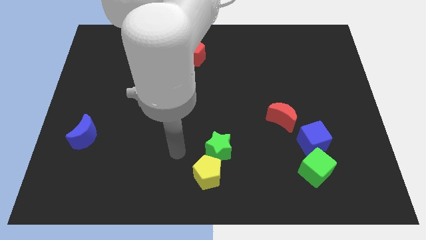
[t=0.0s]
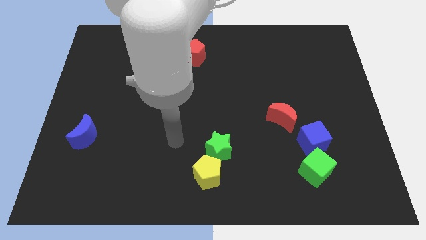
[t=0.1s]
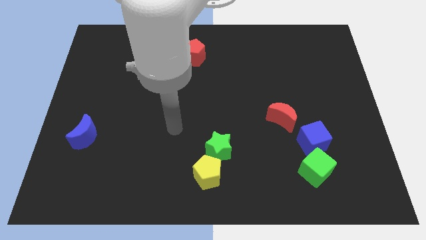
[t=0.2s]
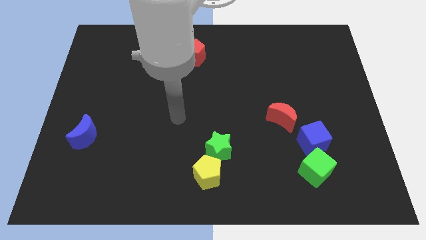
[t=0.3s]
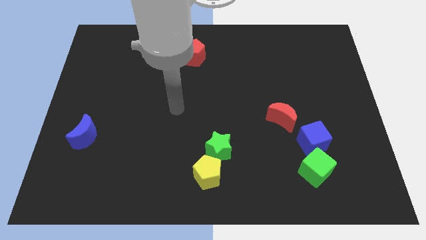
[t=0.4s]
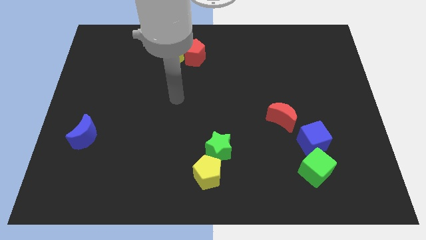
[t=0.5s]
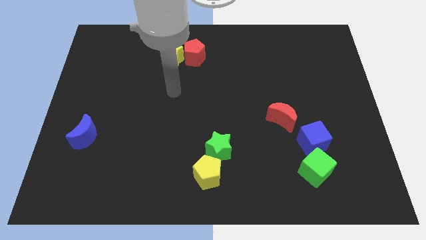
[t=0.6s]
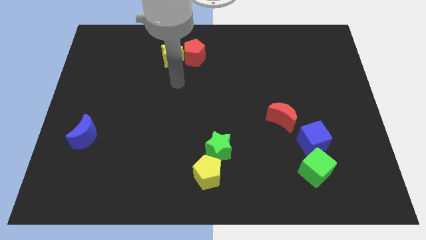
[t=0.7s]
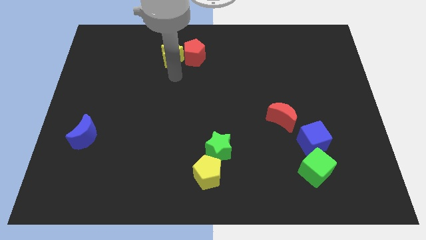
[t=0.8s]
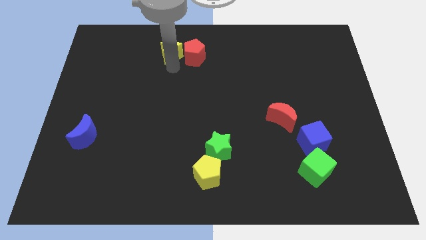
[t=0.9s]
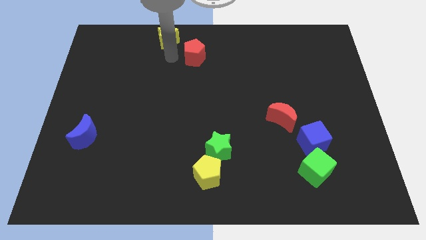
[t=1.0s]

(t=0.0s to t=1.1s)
separate the red pentagon from the yellow star

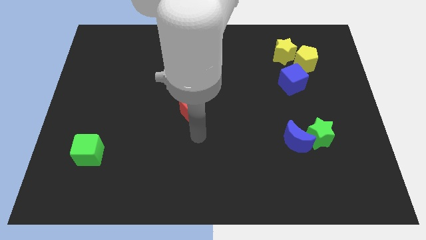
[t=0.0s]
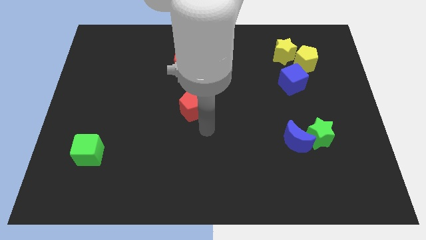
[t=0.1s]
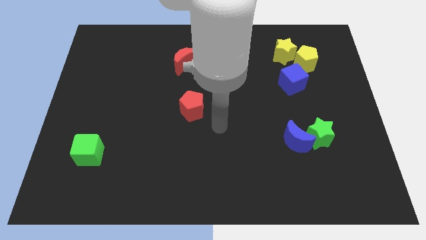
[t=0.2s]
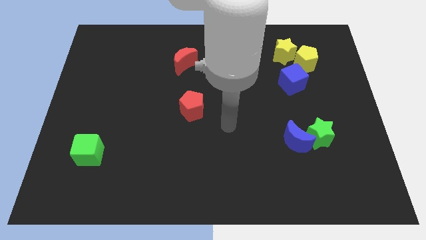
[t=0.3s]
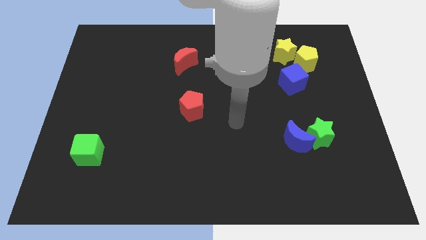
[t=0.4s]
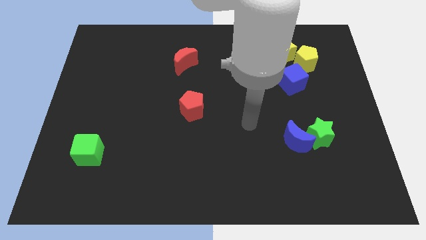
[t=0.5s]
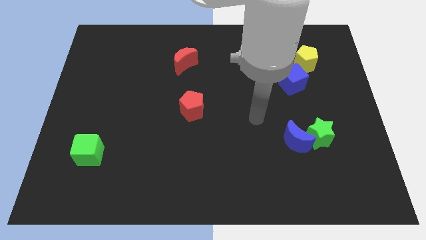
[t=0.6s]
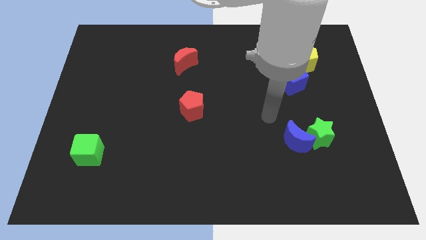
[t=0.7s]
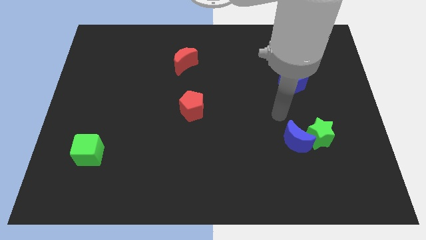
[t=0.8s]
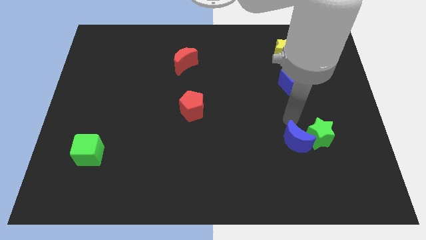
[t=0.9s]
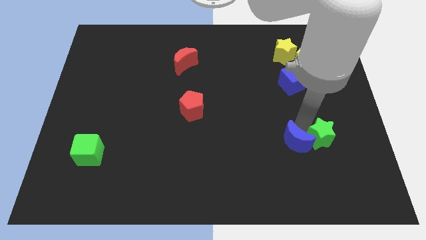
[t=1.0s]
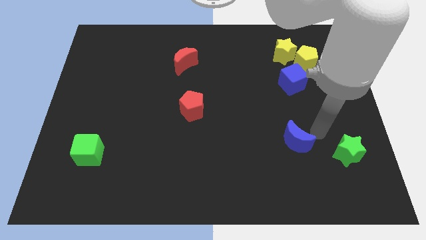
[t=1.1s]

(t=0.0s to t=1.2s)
move the blue moon away from the green star

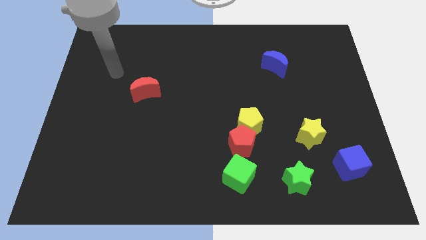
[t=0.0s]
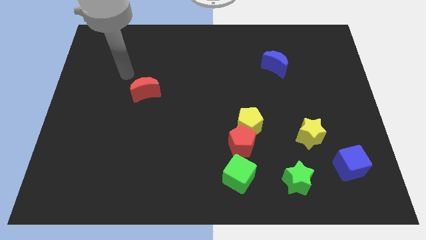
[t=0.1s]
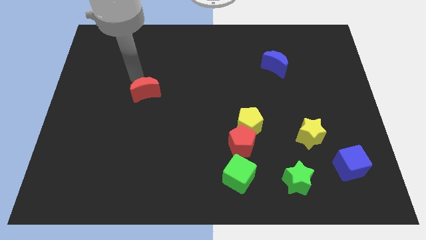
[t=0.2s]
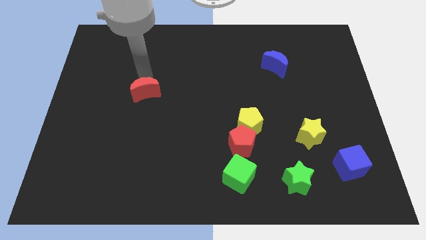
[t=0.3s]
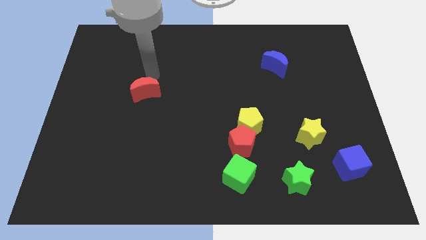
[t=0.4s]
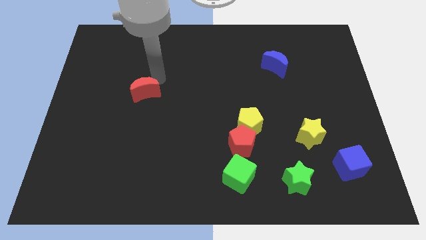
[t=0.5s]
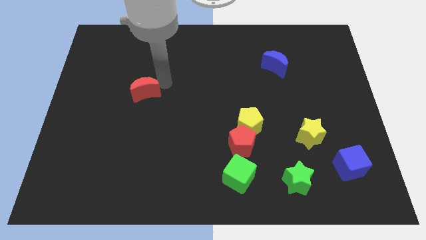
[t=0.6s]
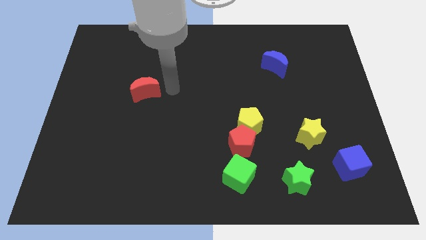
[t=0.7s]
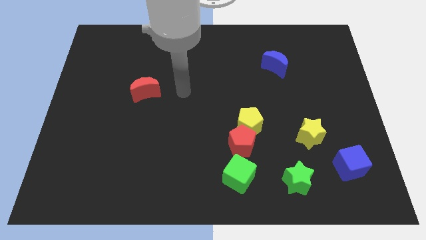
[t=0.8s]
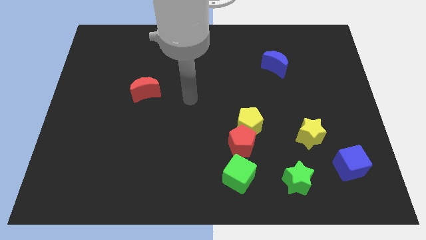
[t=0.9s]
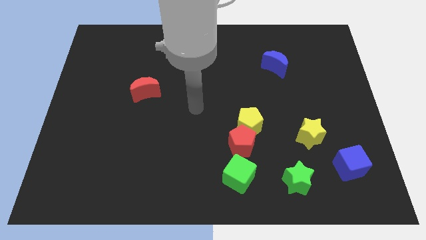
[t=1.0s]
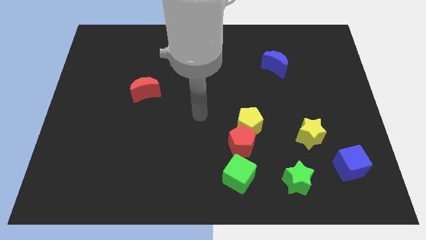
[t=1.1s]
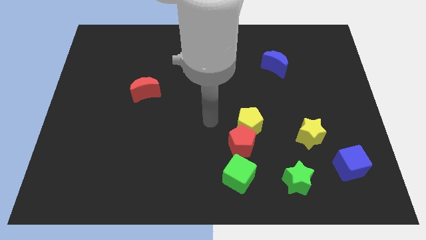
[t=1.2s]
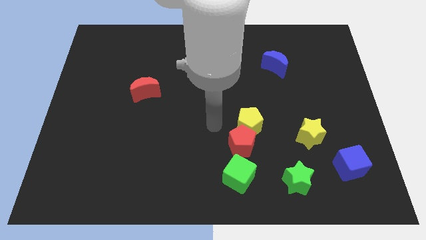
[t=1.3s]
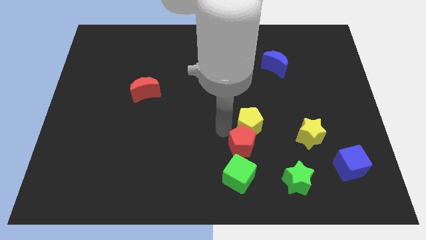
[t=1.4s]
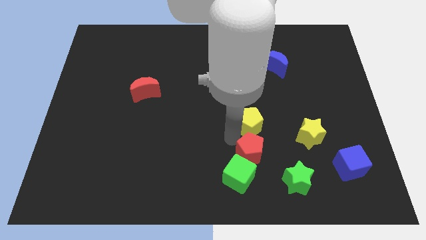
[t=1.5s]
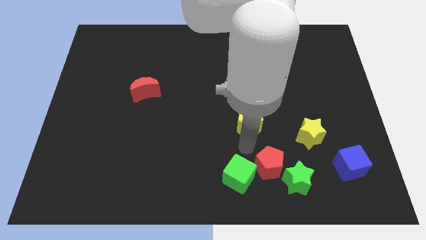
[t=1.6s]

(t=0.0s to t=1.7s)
move the yellow pentagon away from the red pentagon

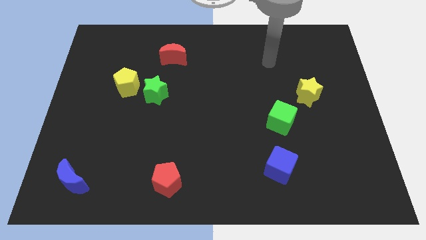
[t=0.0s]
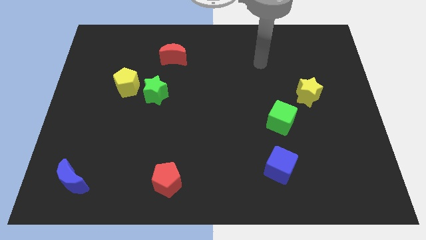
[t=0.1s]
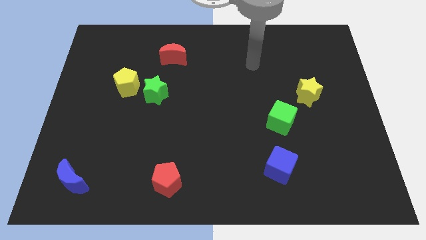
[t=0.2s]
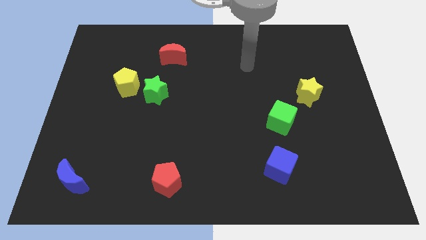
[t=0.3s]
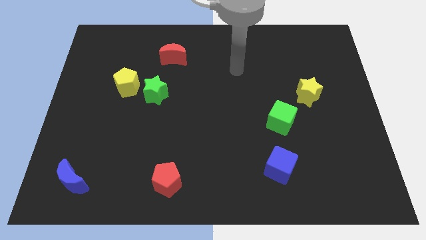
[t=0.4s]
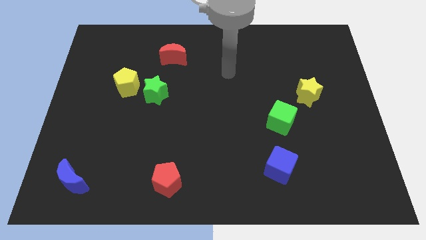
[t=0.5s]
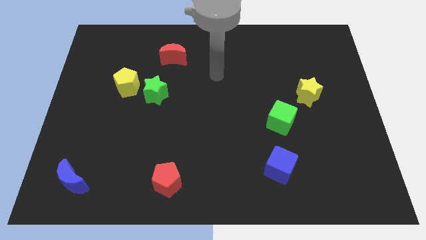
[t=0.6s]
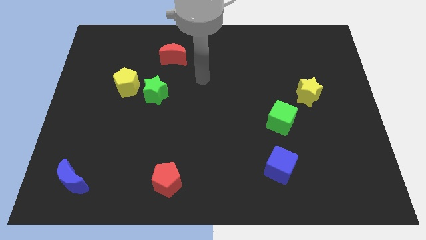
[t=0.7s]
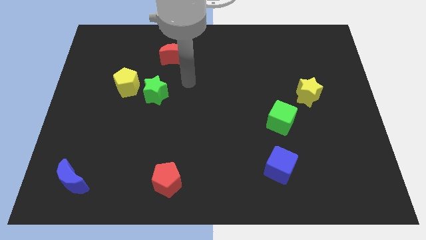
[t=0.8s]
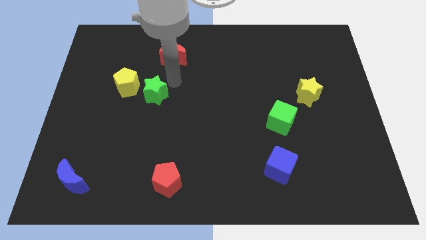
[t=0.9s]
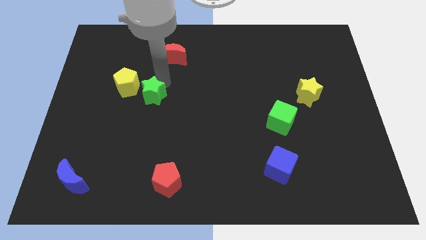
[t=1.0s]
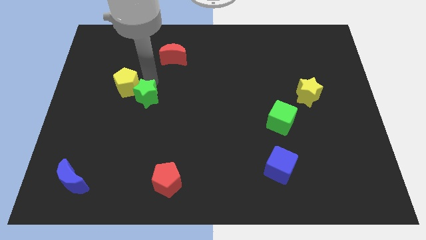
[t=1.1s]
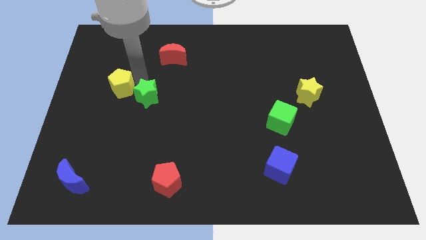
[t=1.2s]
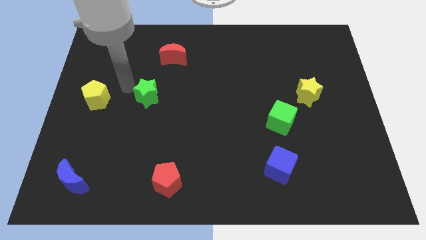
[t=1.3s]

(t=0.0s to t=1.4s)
separate the green star from the yellow pentagon

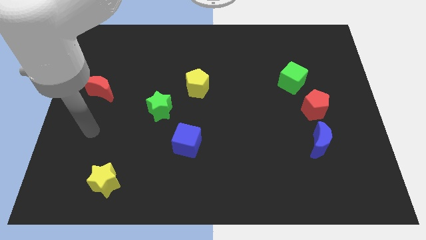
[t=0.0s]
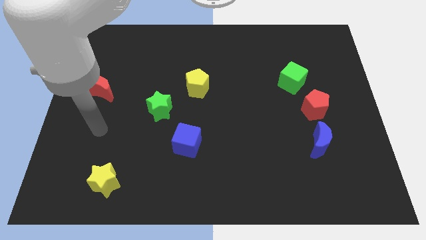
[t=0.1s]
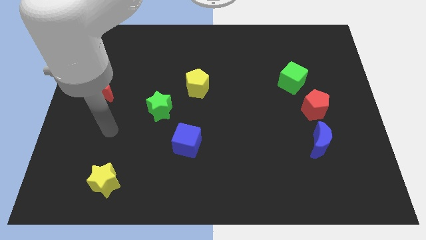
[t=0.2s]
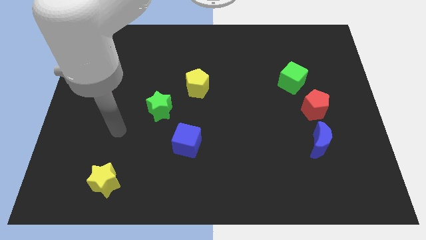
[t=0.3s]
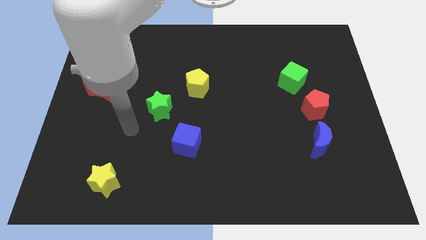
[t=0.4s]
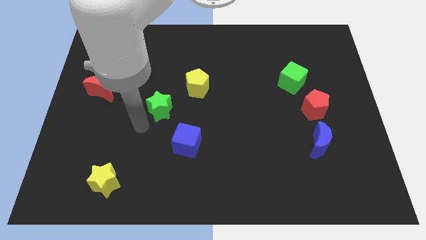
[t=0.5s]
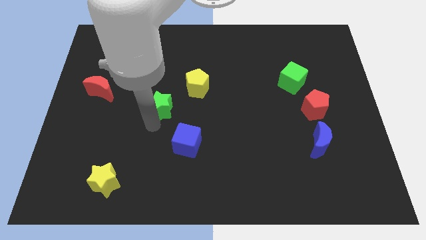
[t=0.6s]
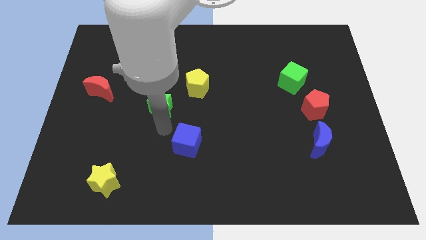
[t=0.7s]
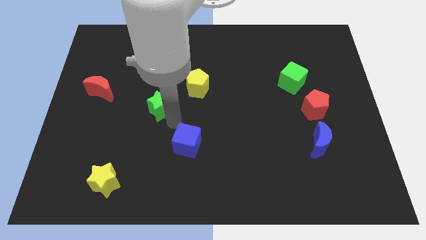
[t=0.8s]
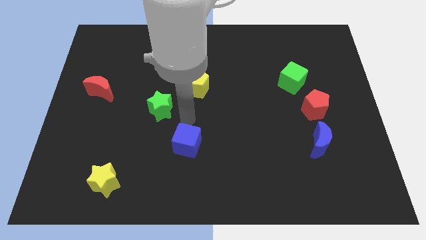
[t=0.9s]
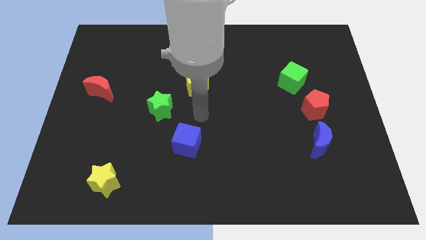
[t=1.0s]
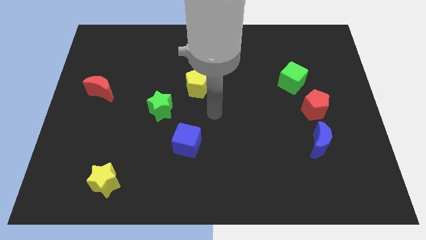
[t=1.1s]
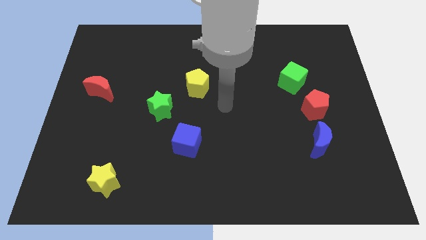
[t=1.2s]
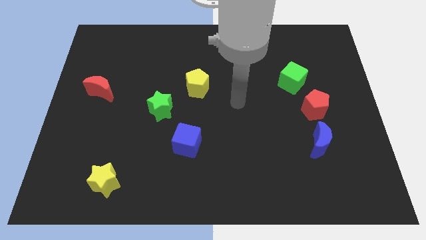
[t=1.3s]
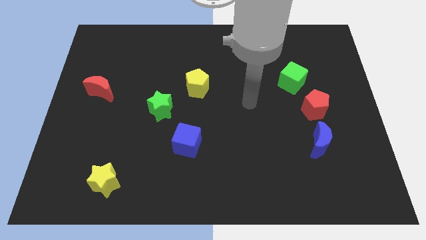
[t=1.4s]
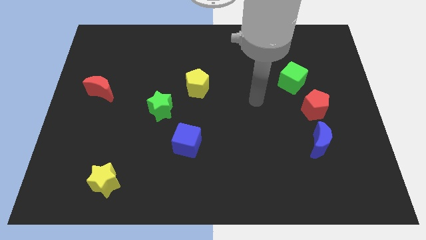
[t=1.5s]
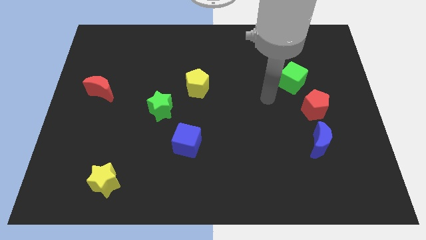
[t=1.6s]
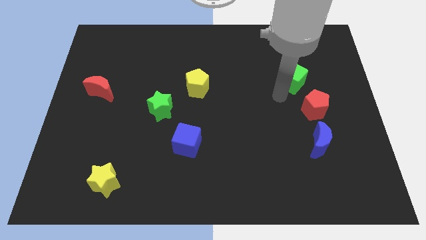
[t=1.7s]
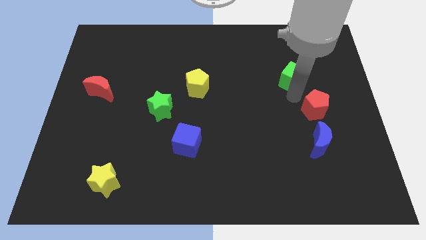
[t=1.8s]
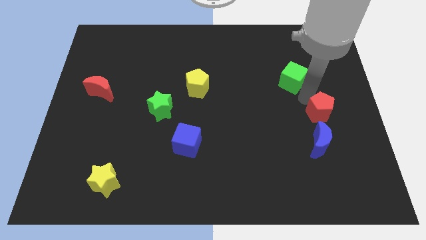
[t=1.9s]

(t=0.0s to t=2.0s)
separate the green cube from the red pentagon

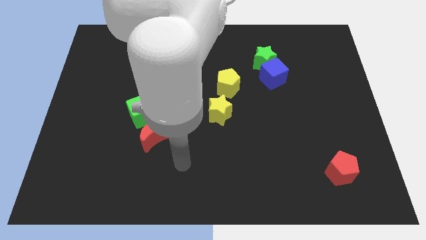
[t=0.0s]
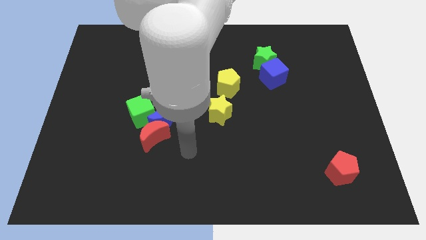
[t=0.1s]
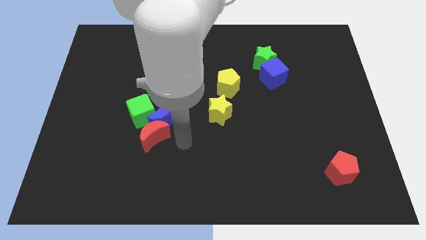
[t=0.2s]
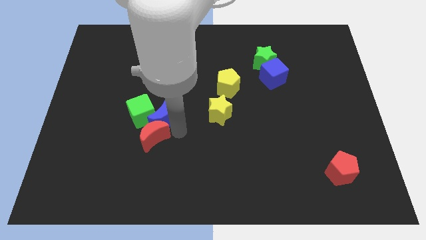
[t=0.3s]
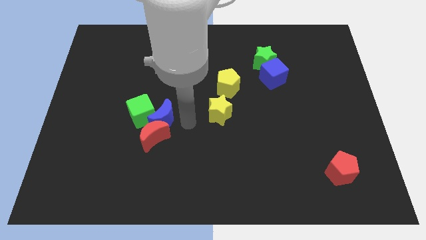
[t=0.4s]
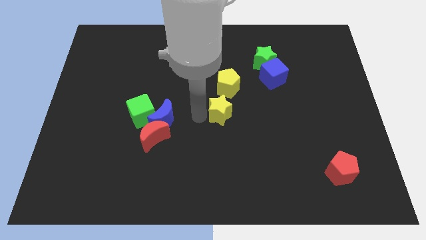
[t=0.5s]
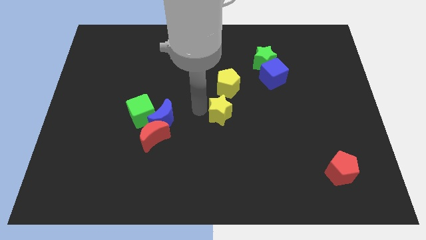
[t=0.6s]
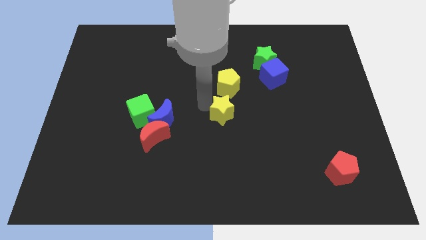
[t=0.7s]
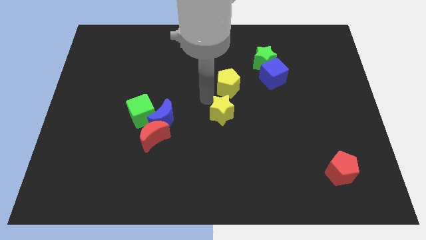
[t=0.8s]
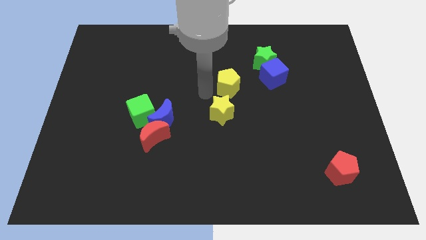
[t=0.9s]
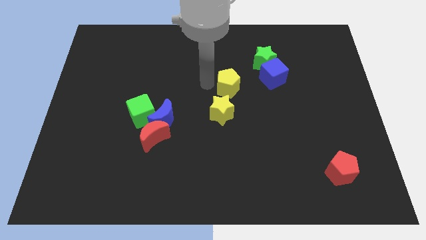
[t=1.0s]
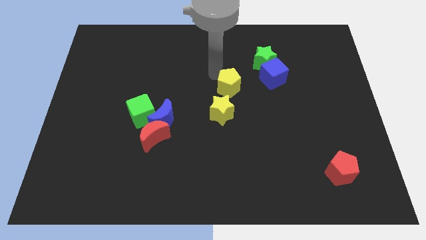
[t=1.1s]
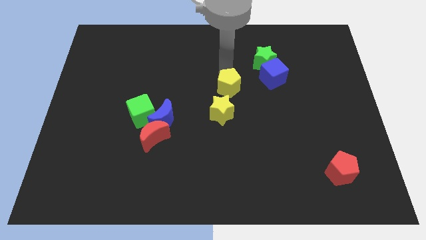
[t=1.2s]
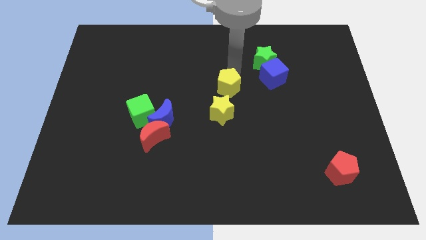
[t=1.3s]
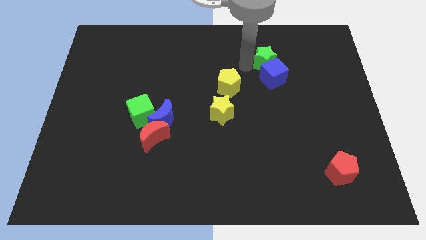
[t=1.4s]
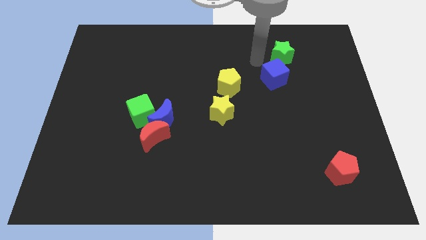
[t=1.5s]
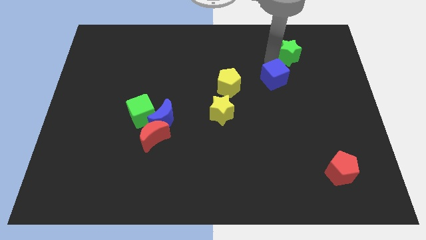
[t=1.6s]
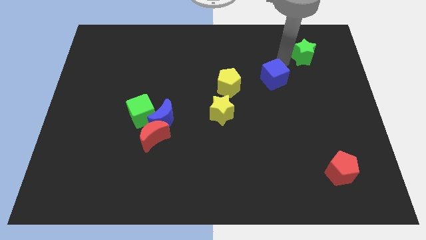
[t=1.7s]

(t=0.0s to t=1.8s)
separate the blue cube from the green star

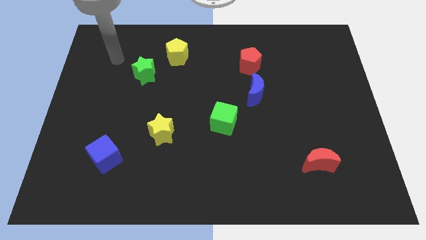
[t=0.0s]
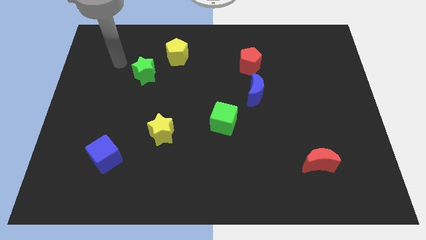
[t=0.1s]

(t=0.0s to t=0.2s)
separate the red pentagon from the blue moon
